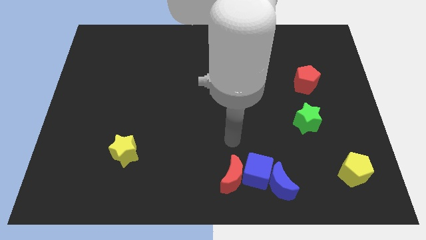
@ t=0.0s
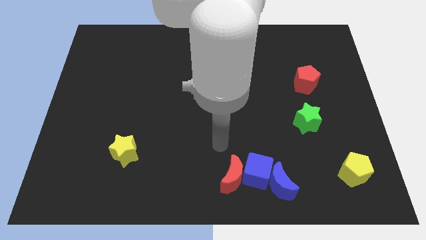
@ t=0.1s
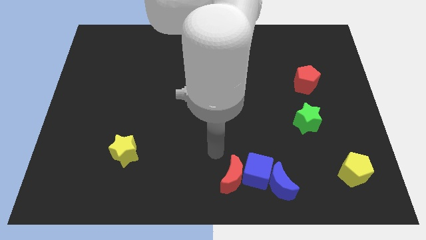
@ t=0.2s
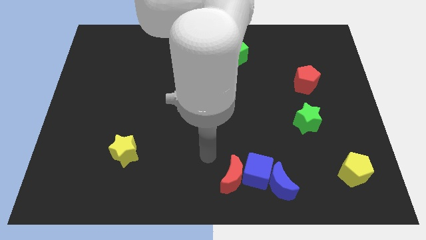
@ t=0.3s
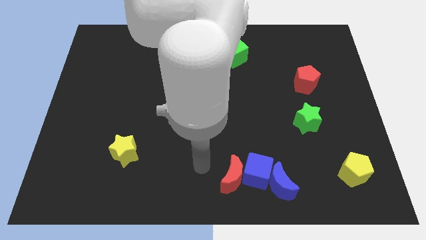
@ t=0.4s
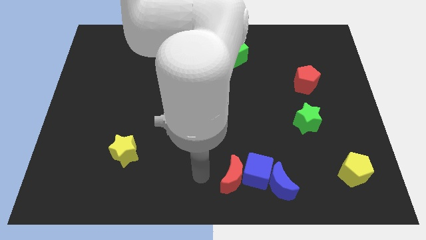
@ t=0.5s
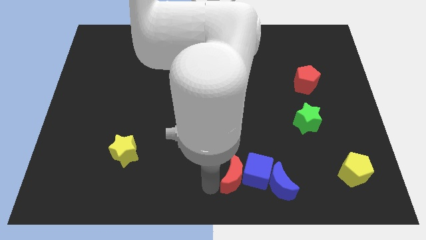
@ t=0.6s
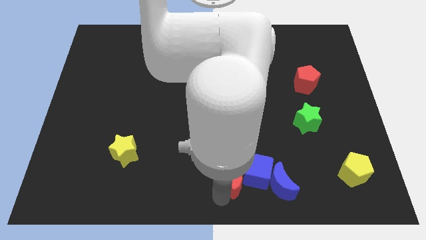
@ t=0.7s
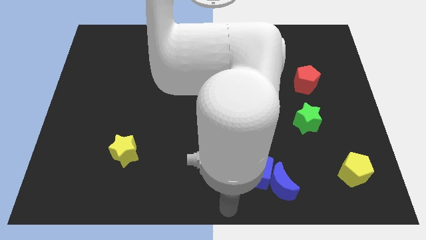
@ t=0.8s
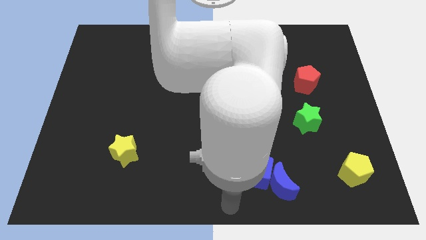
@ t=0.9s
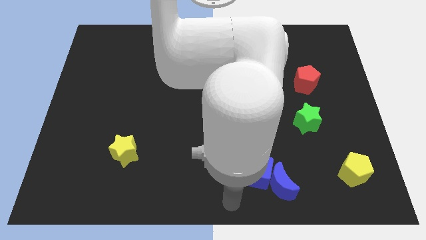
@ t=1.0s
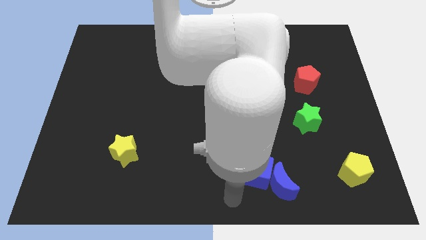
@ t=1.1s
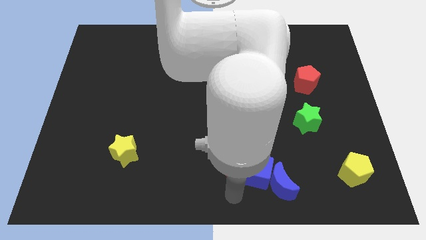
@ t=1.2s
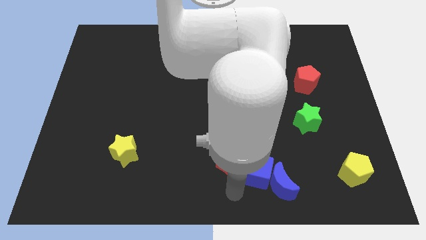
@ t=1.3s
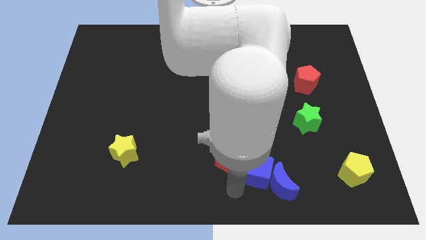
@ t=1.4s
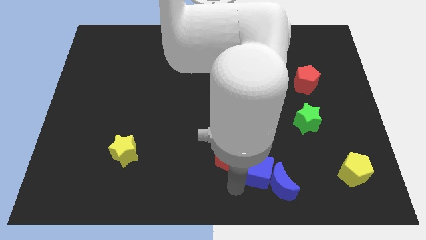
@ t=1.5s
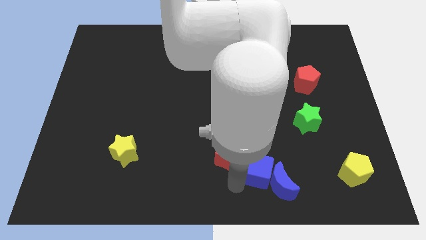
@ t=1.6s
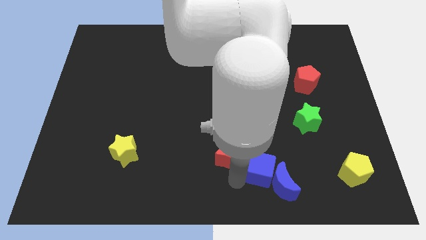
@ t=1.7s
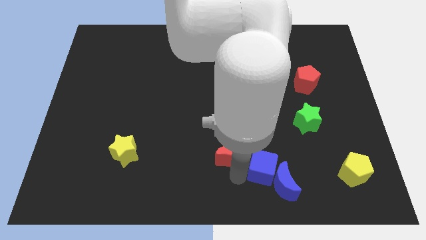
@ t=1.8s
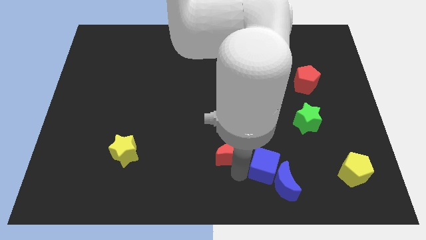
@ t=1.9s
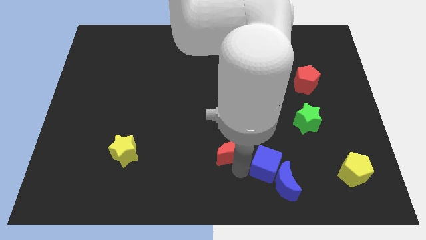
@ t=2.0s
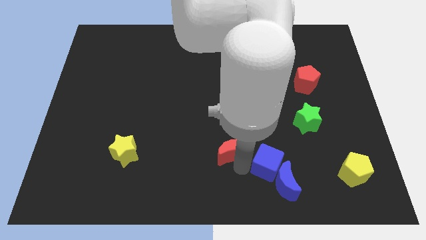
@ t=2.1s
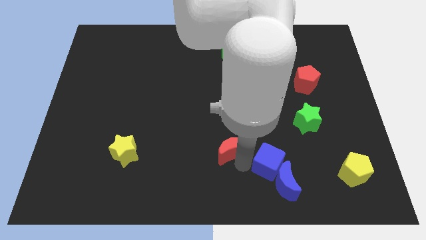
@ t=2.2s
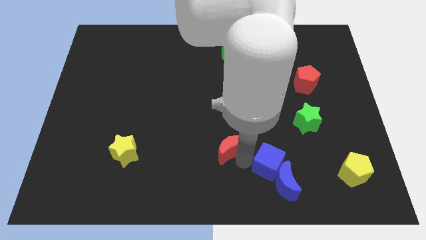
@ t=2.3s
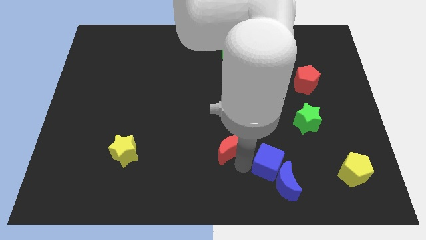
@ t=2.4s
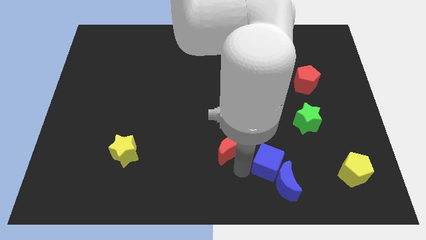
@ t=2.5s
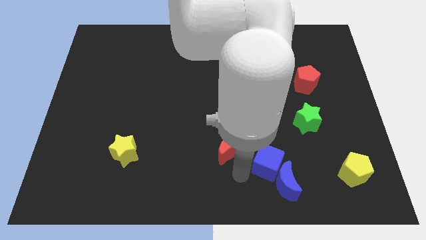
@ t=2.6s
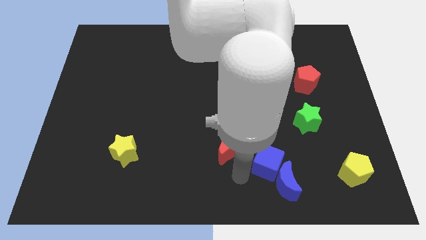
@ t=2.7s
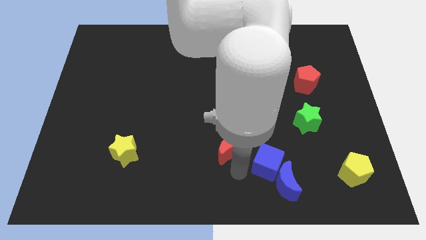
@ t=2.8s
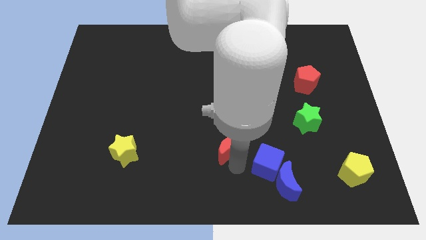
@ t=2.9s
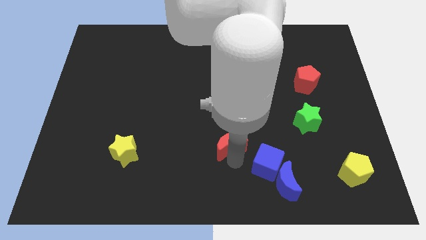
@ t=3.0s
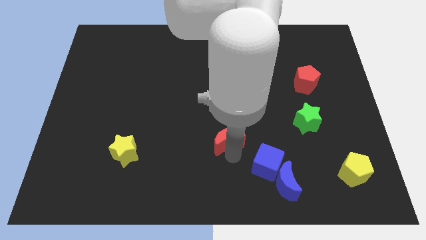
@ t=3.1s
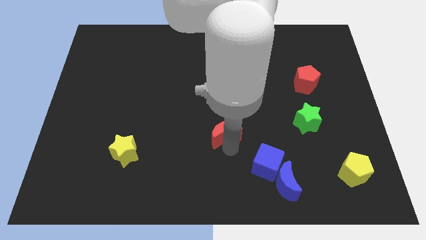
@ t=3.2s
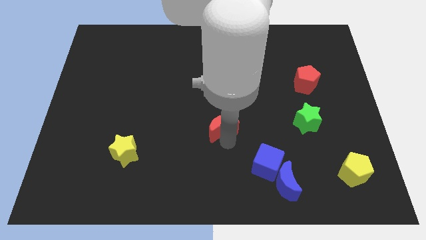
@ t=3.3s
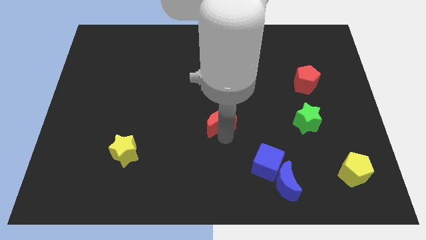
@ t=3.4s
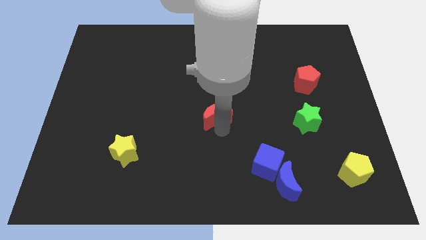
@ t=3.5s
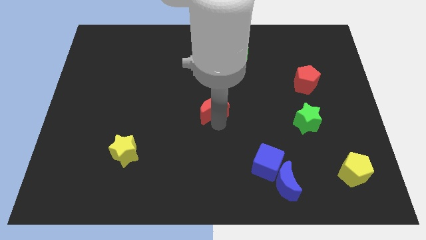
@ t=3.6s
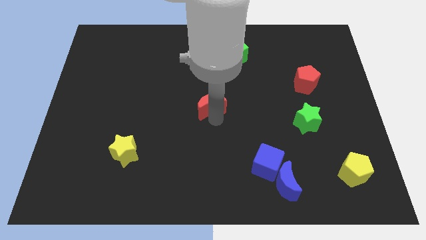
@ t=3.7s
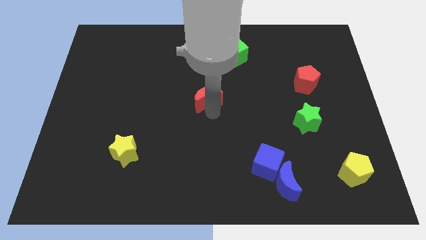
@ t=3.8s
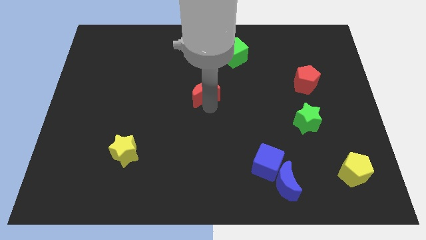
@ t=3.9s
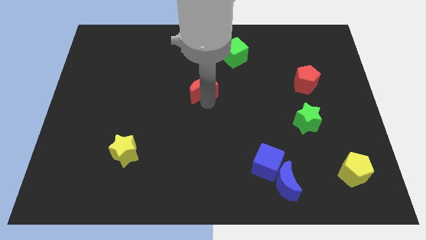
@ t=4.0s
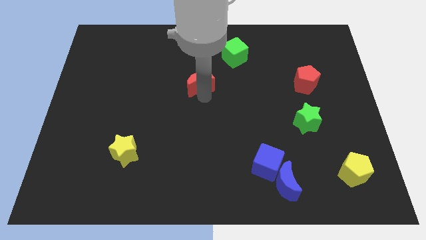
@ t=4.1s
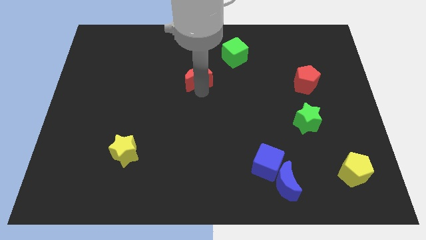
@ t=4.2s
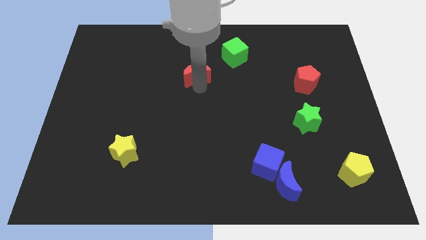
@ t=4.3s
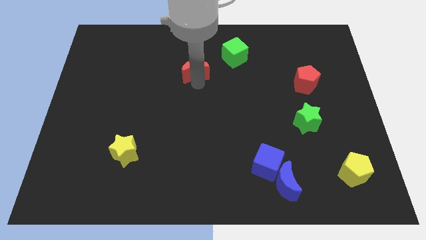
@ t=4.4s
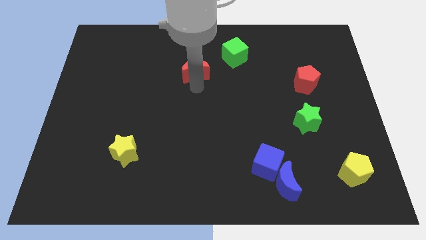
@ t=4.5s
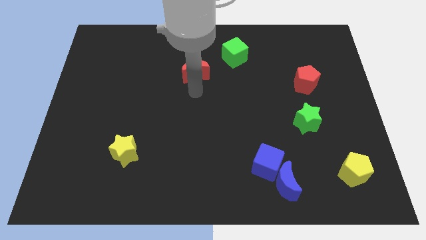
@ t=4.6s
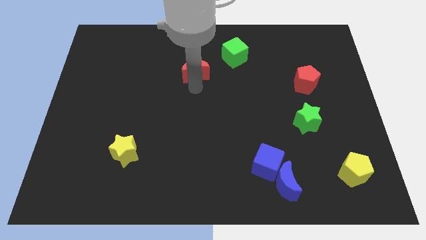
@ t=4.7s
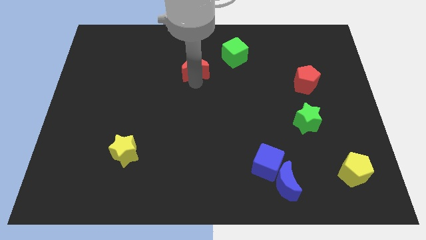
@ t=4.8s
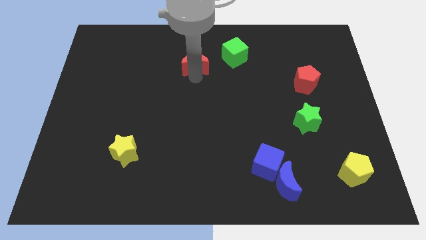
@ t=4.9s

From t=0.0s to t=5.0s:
push the red moon left of the green cube

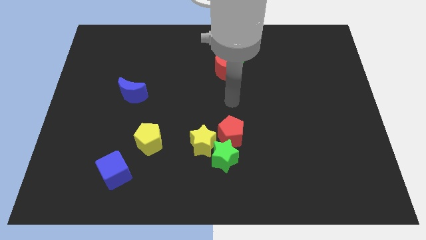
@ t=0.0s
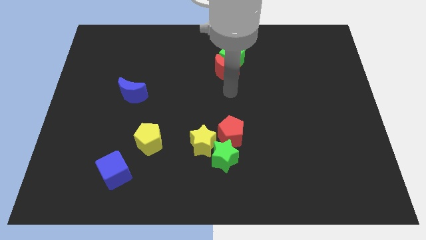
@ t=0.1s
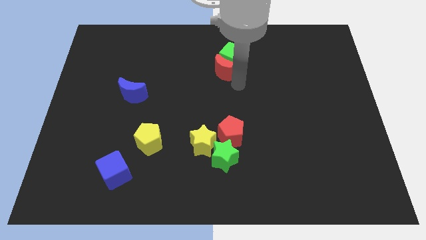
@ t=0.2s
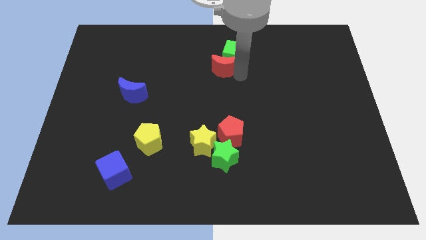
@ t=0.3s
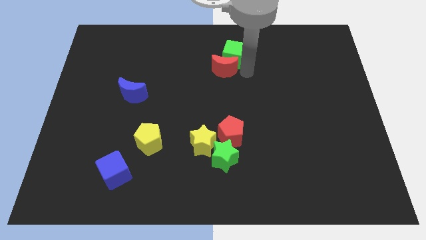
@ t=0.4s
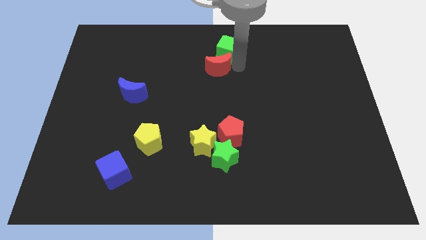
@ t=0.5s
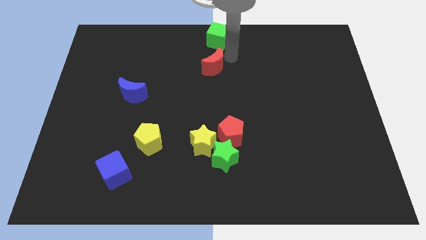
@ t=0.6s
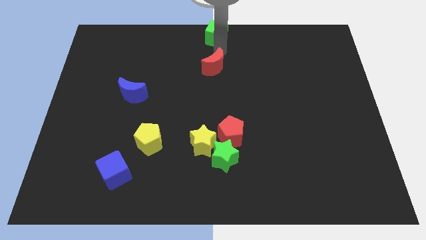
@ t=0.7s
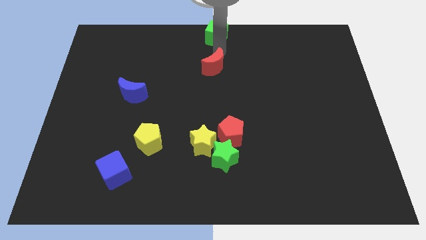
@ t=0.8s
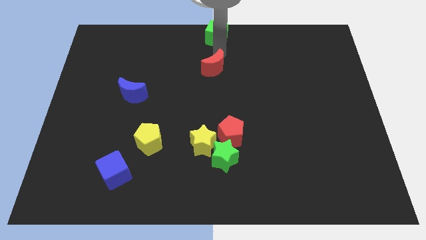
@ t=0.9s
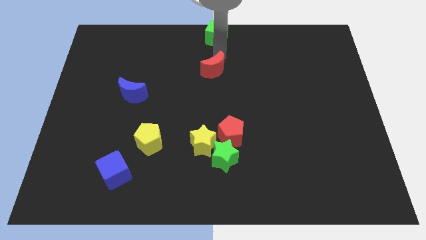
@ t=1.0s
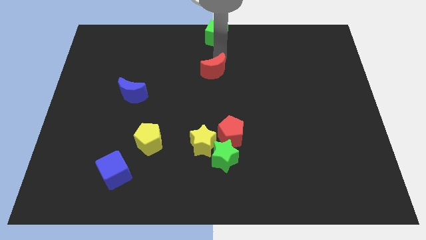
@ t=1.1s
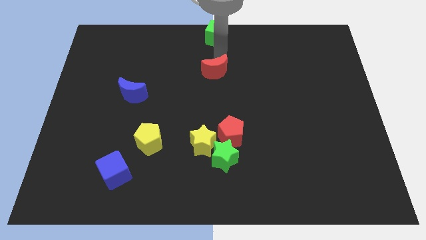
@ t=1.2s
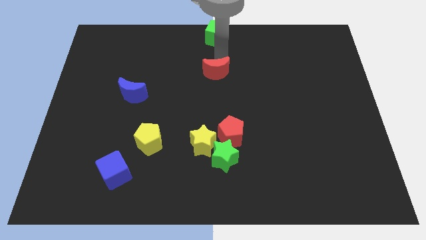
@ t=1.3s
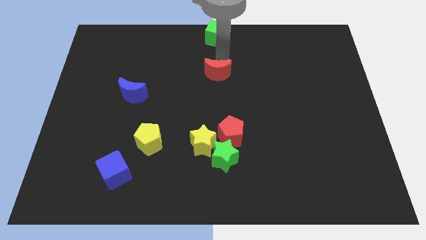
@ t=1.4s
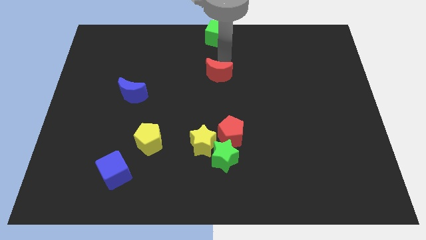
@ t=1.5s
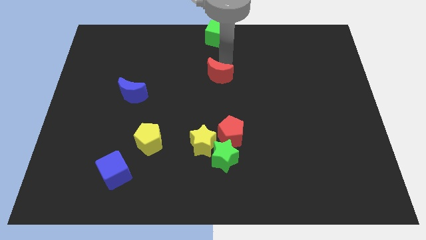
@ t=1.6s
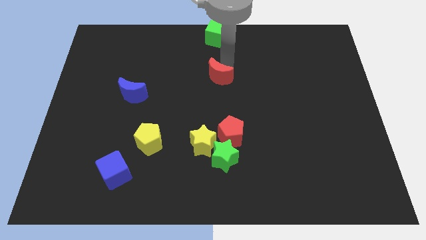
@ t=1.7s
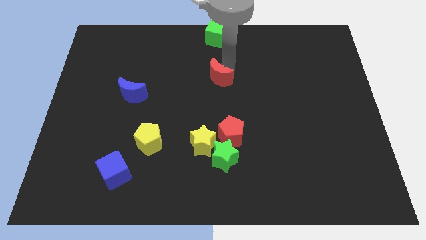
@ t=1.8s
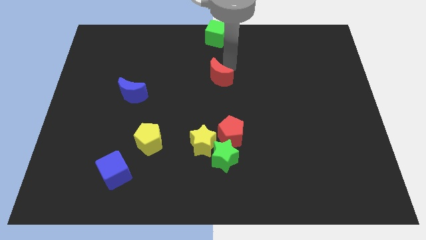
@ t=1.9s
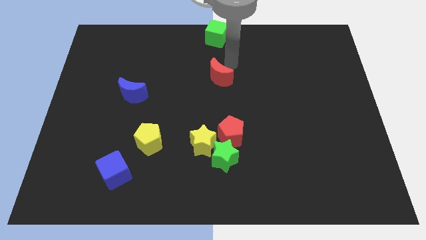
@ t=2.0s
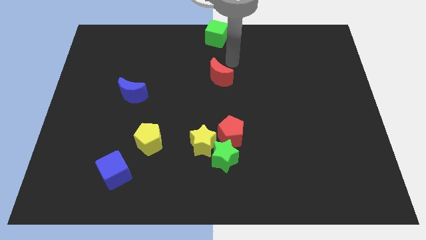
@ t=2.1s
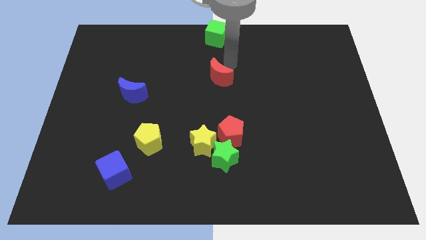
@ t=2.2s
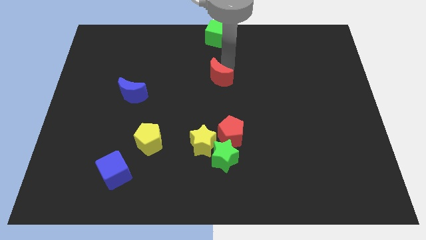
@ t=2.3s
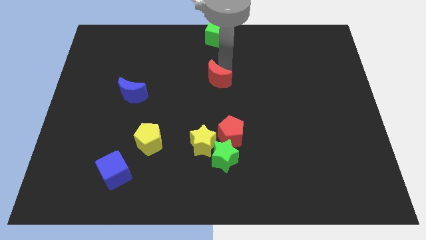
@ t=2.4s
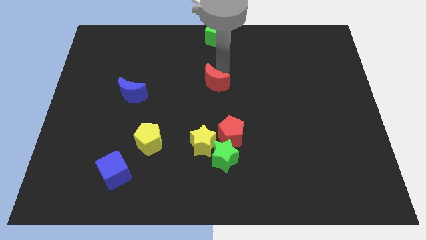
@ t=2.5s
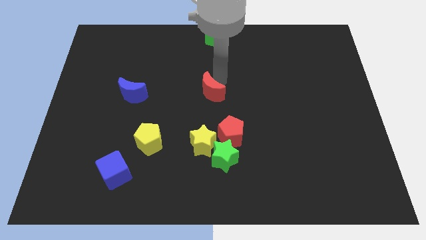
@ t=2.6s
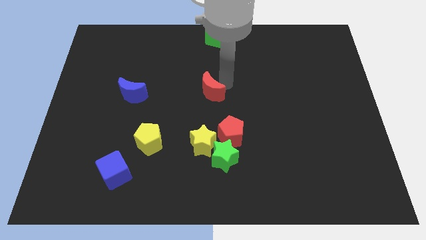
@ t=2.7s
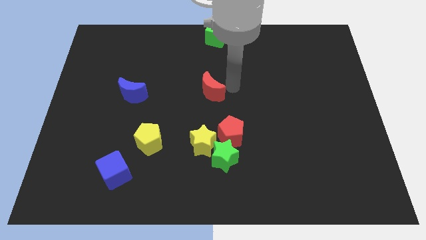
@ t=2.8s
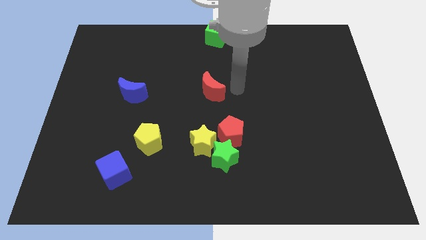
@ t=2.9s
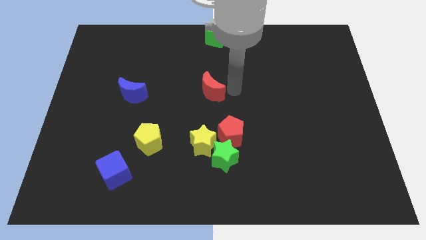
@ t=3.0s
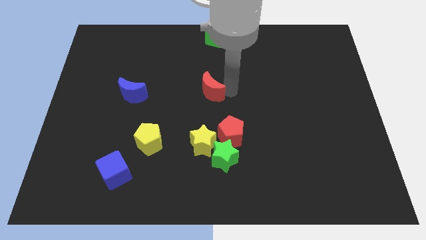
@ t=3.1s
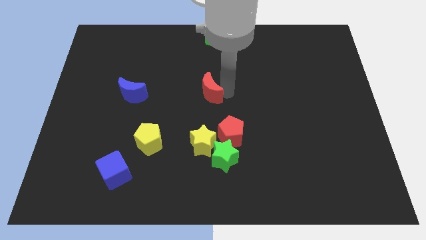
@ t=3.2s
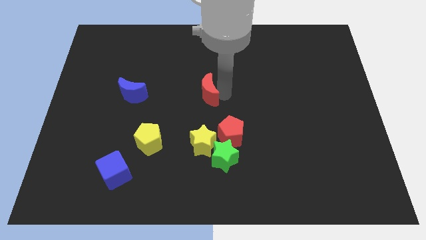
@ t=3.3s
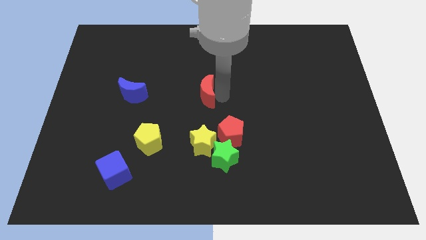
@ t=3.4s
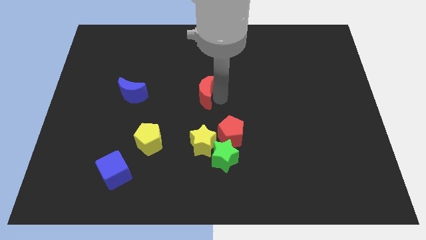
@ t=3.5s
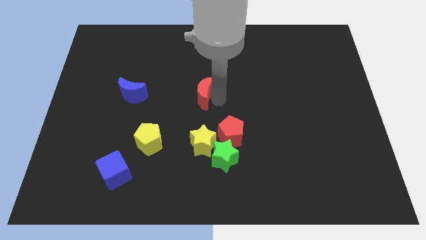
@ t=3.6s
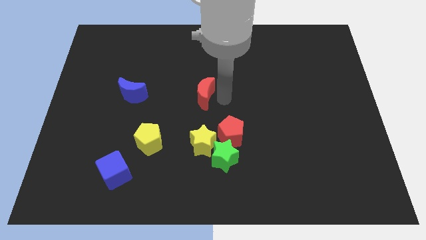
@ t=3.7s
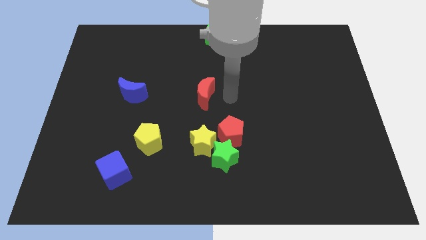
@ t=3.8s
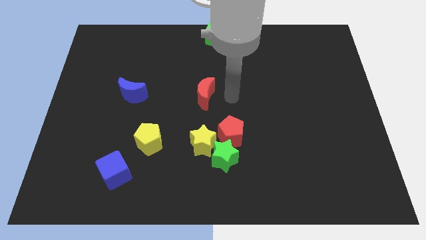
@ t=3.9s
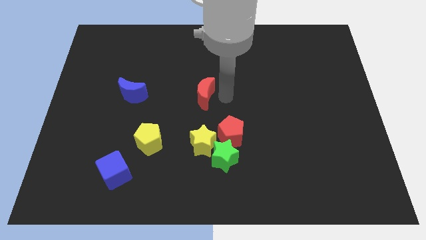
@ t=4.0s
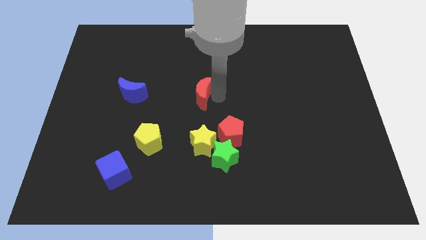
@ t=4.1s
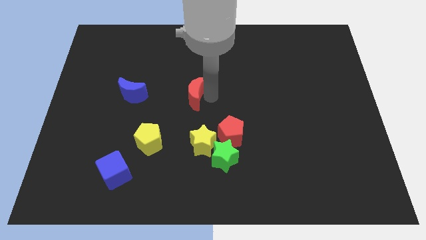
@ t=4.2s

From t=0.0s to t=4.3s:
put the red moon right of the blue moon
